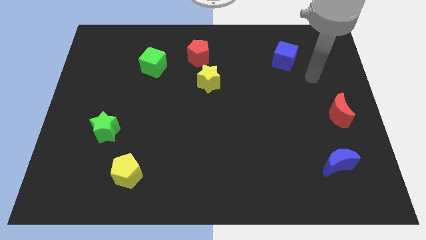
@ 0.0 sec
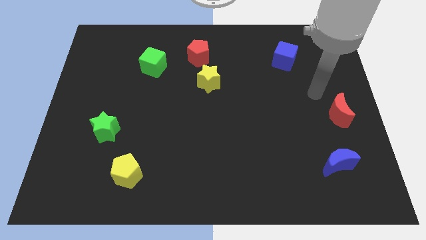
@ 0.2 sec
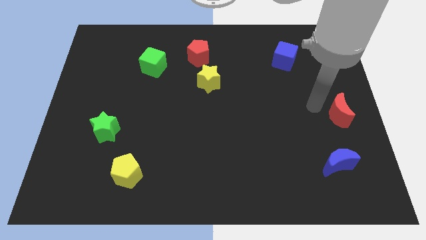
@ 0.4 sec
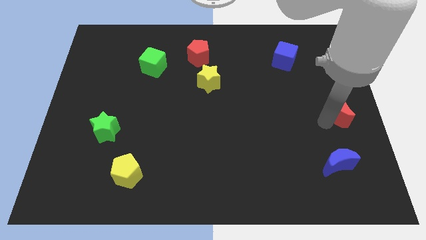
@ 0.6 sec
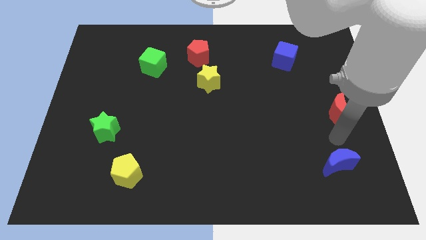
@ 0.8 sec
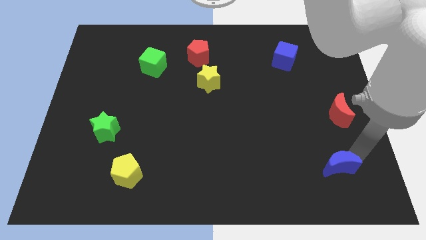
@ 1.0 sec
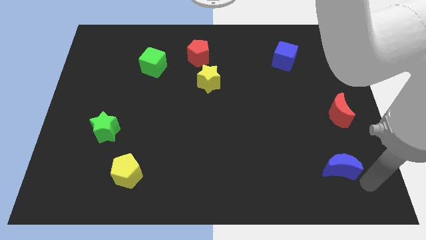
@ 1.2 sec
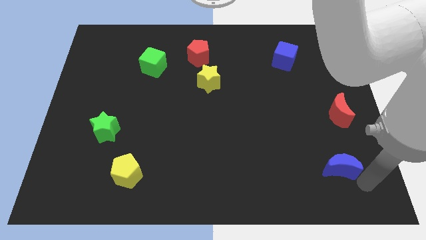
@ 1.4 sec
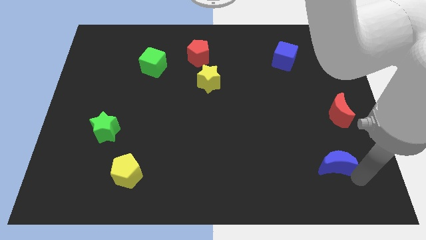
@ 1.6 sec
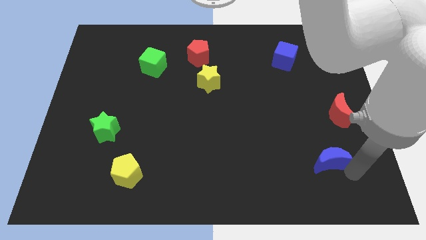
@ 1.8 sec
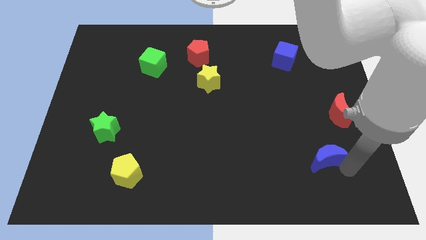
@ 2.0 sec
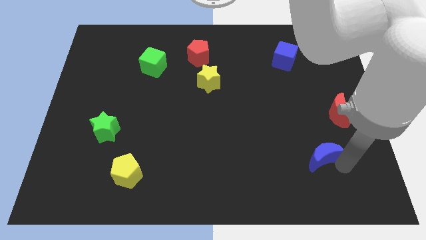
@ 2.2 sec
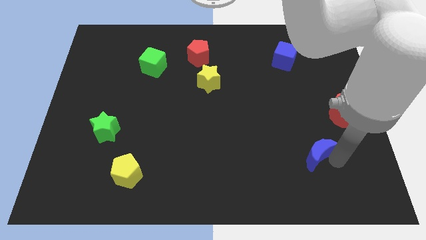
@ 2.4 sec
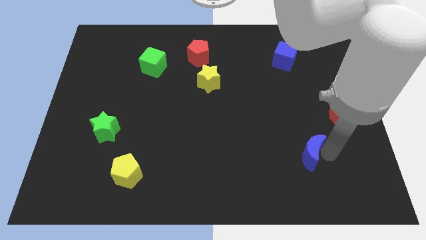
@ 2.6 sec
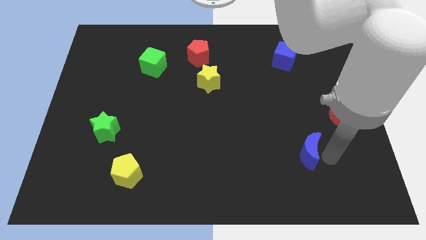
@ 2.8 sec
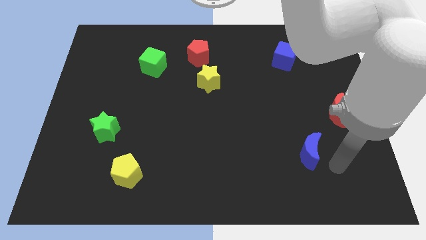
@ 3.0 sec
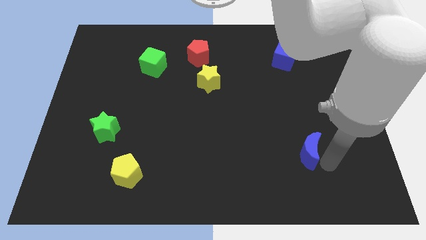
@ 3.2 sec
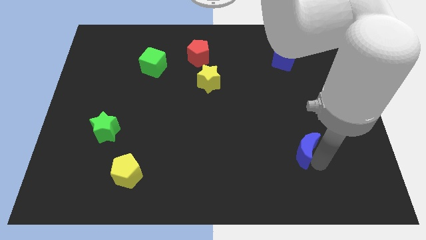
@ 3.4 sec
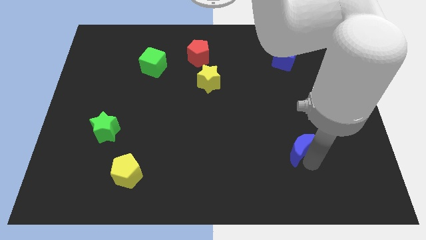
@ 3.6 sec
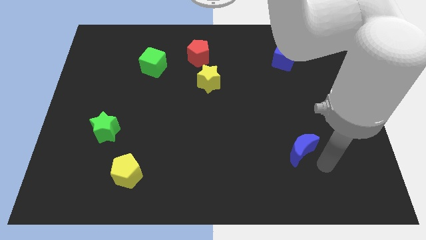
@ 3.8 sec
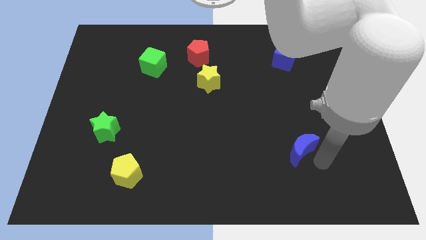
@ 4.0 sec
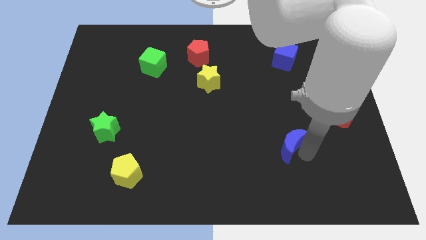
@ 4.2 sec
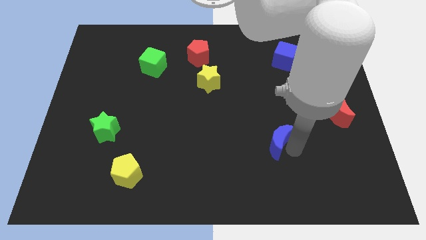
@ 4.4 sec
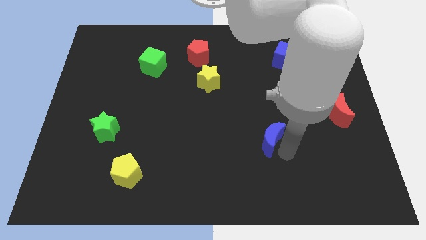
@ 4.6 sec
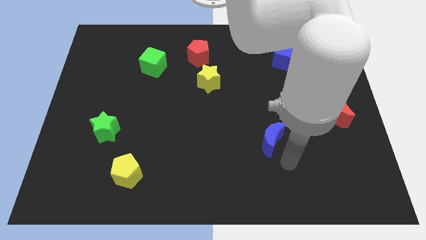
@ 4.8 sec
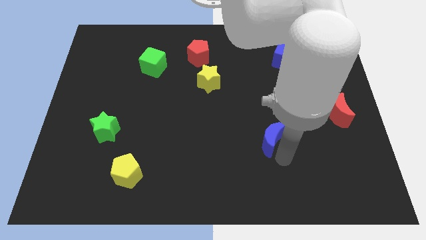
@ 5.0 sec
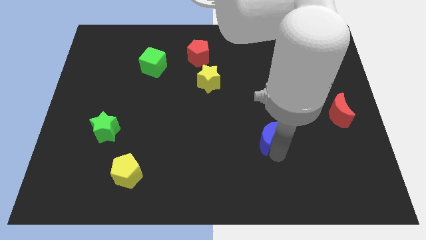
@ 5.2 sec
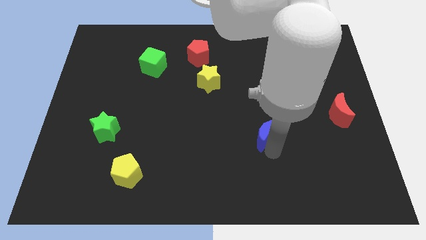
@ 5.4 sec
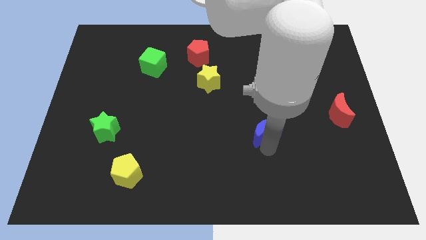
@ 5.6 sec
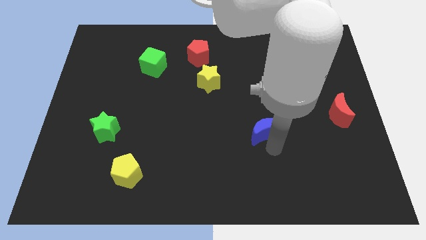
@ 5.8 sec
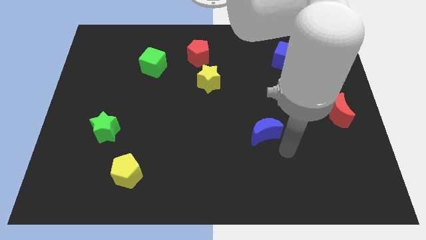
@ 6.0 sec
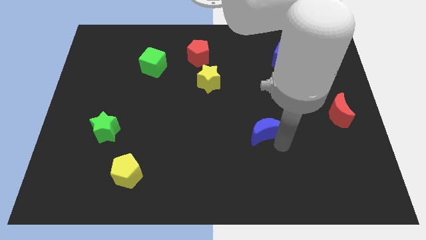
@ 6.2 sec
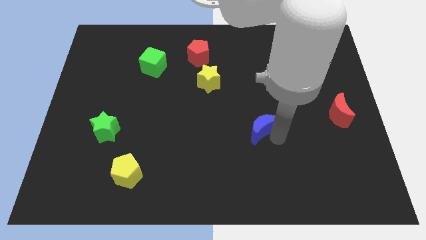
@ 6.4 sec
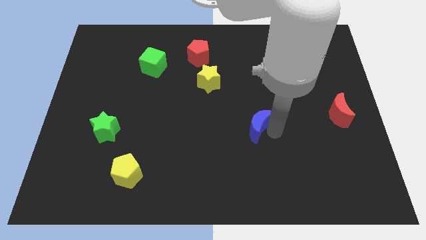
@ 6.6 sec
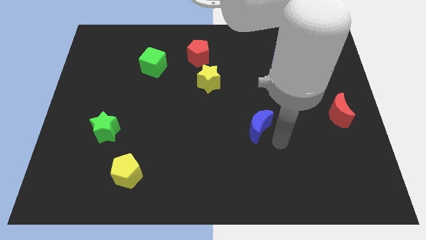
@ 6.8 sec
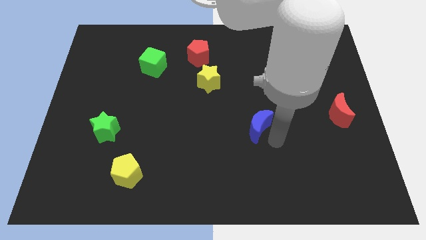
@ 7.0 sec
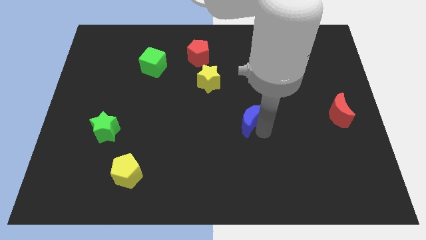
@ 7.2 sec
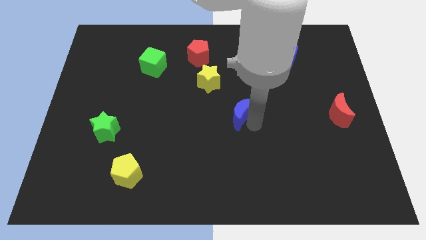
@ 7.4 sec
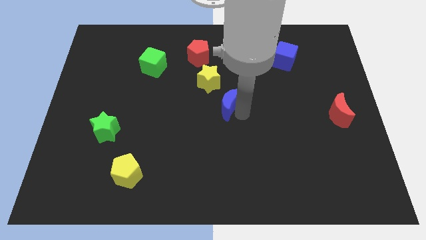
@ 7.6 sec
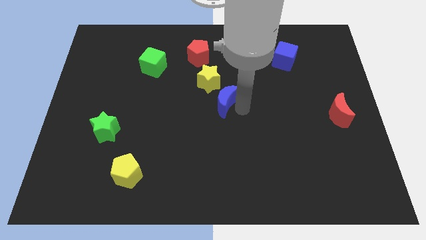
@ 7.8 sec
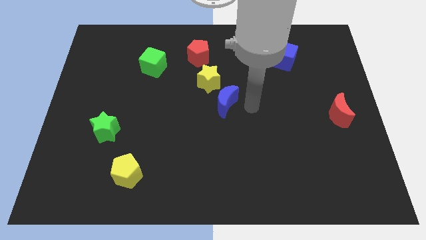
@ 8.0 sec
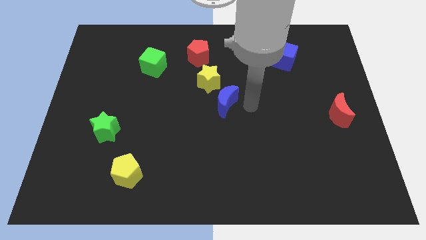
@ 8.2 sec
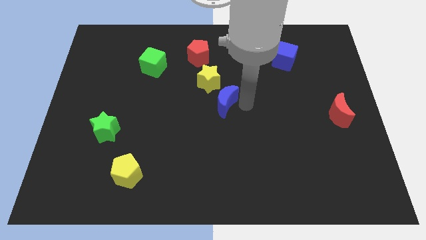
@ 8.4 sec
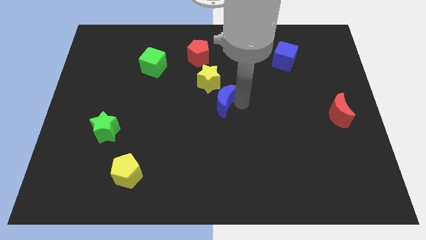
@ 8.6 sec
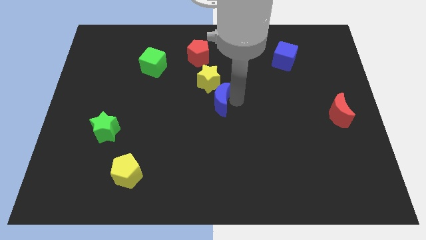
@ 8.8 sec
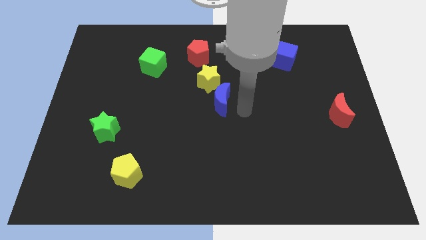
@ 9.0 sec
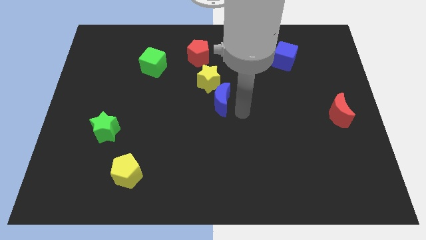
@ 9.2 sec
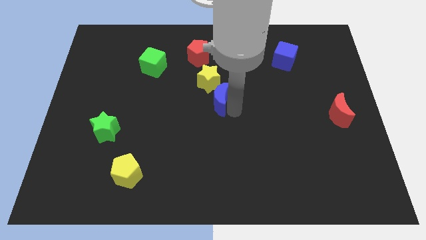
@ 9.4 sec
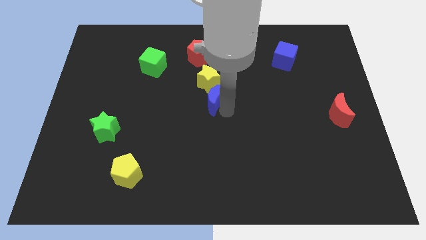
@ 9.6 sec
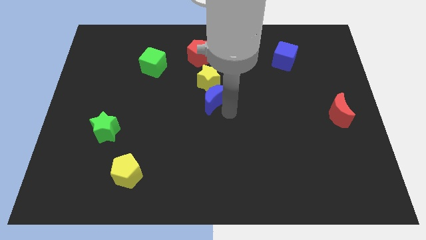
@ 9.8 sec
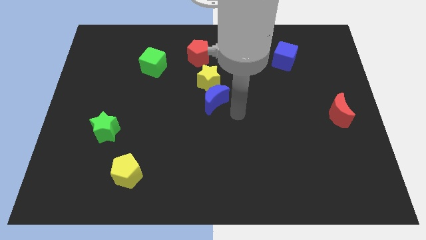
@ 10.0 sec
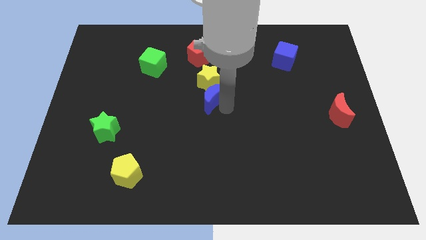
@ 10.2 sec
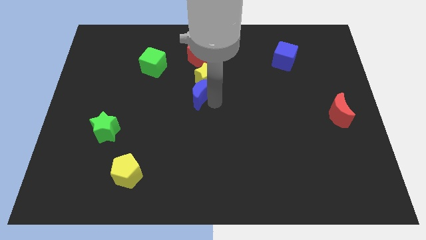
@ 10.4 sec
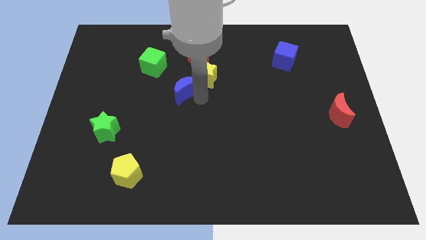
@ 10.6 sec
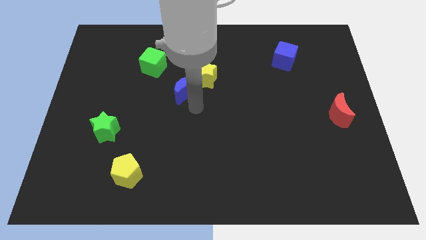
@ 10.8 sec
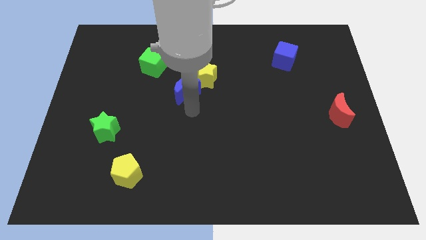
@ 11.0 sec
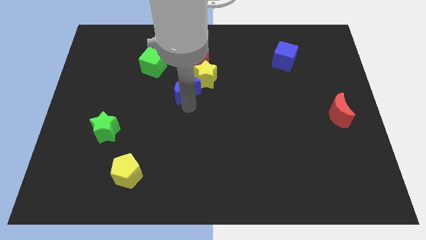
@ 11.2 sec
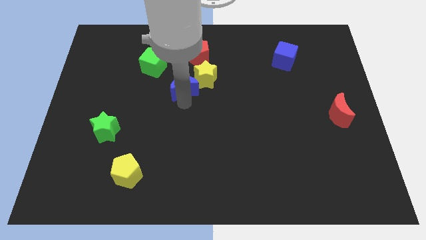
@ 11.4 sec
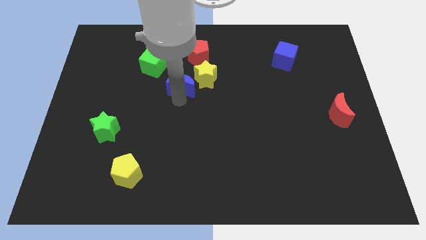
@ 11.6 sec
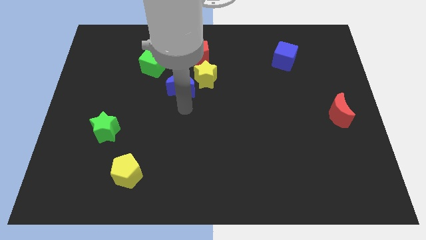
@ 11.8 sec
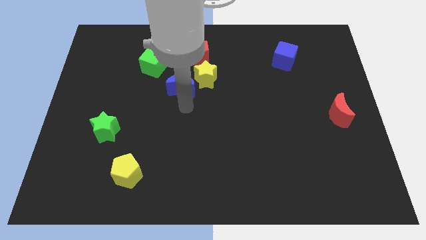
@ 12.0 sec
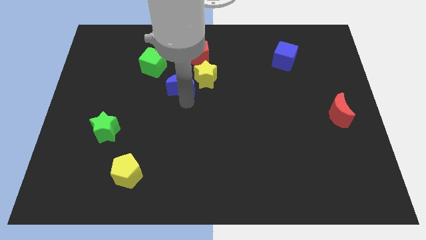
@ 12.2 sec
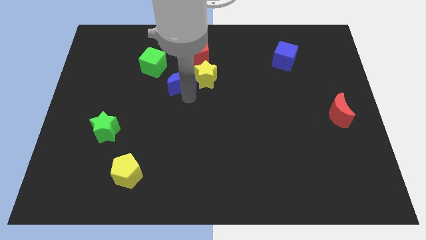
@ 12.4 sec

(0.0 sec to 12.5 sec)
put the blue moon to the bottom left of the red pentagon
